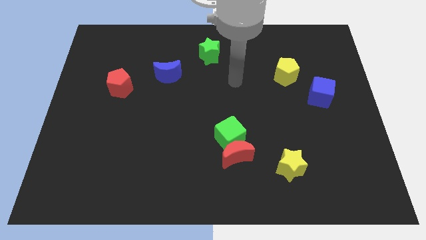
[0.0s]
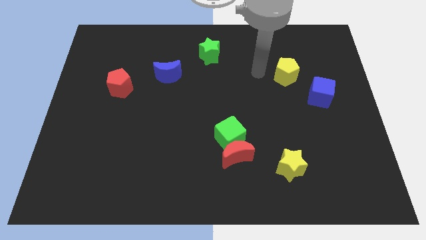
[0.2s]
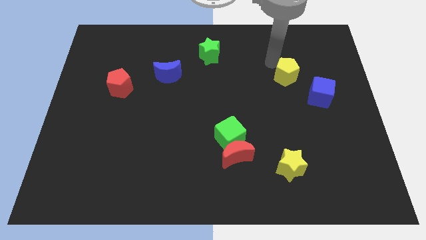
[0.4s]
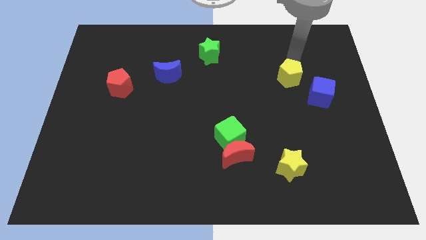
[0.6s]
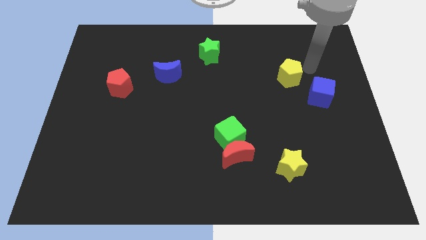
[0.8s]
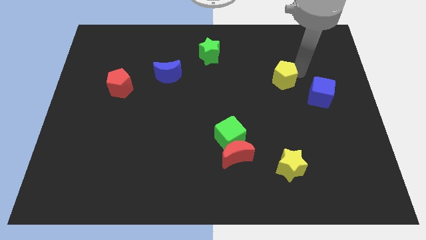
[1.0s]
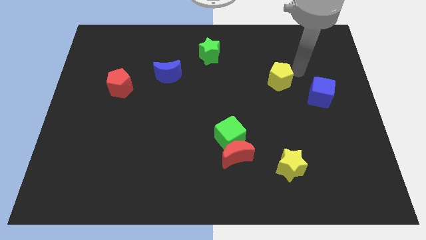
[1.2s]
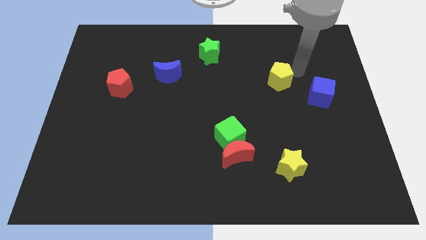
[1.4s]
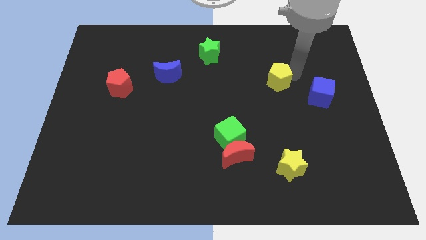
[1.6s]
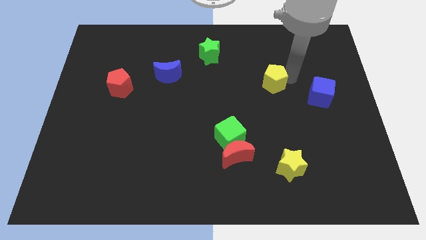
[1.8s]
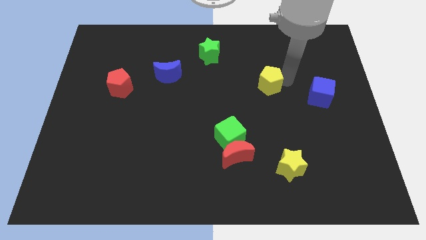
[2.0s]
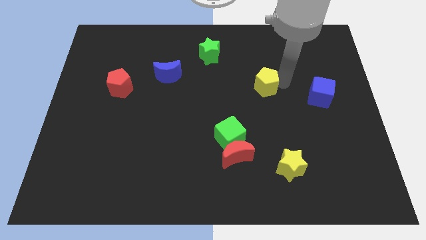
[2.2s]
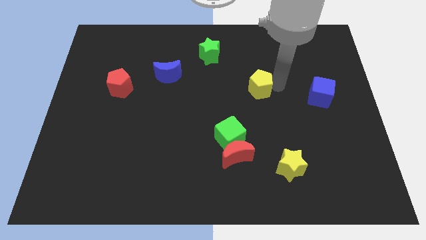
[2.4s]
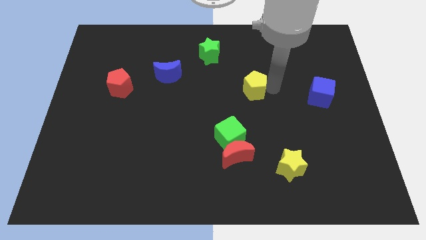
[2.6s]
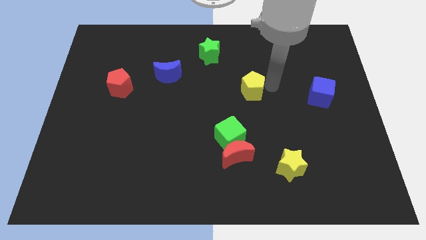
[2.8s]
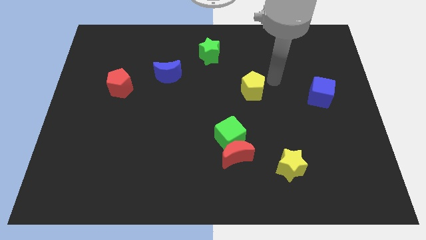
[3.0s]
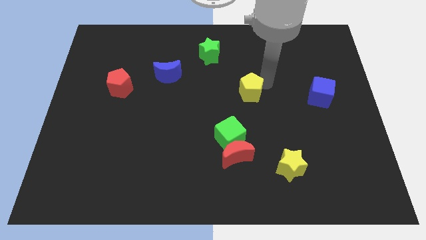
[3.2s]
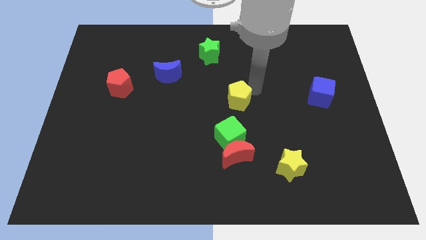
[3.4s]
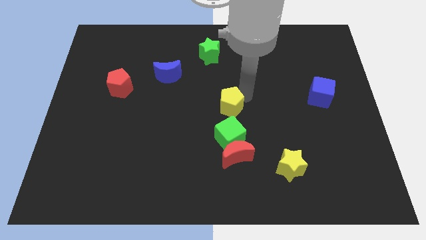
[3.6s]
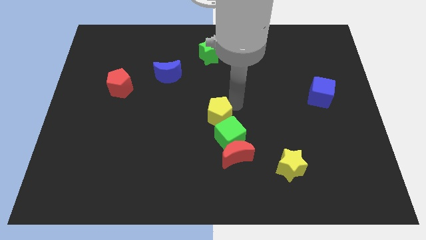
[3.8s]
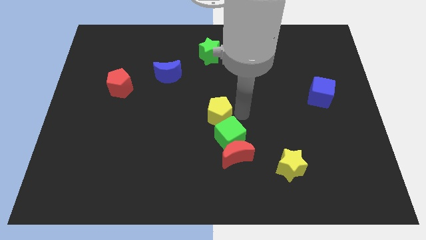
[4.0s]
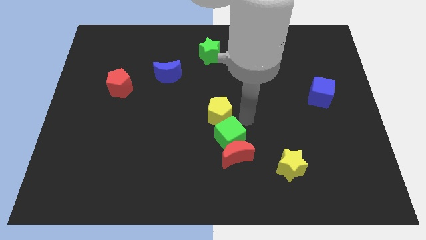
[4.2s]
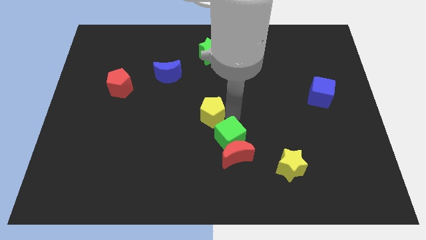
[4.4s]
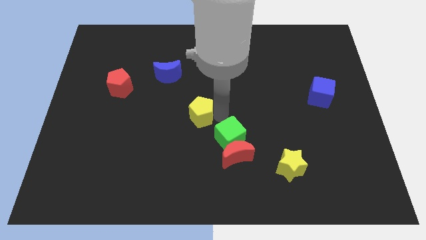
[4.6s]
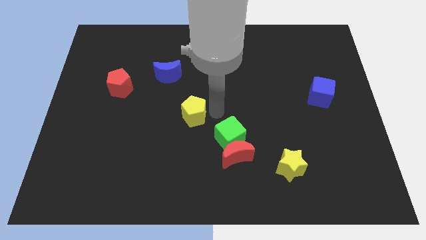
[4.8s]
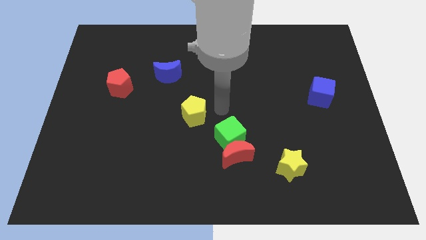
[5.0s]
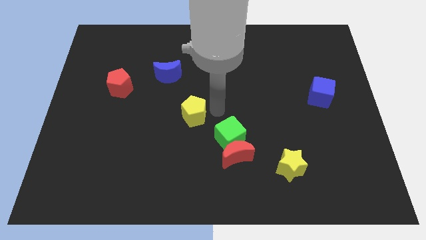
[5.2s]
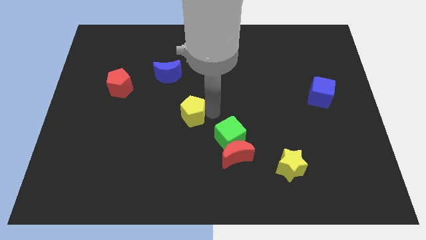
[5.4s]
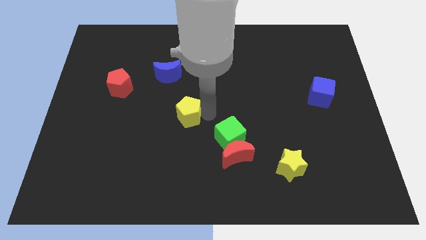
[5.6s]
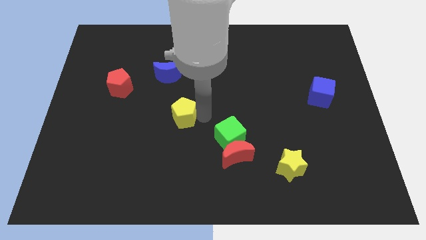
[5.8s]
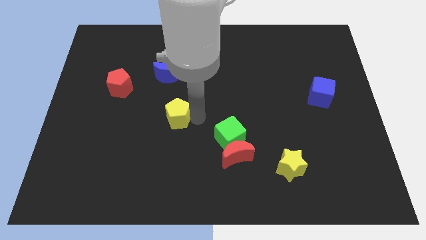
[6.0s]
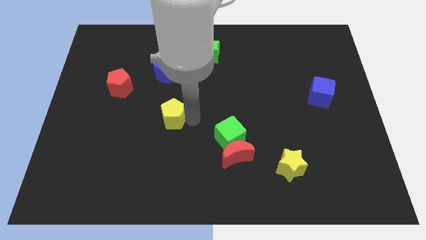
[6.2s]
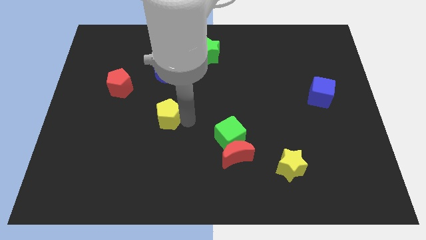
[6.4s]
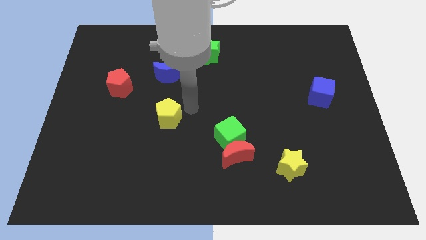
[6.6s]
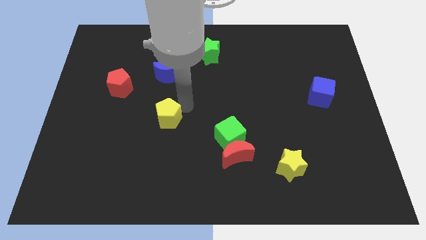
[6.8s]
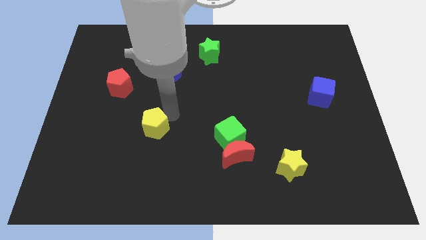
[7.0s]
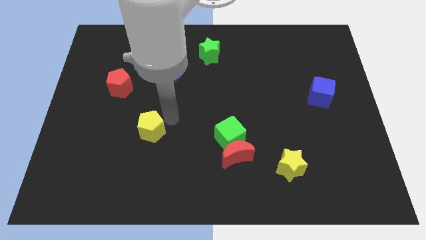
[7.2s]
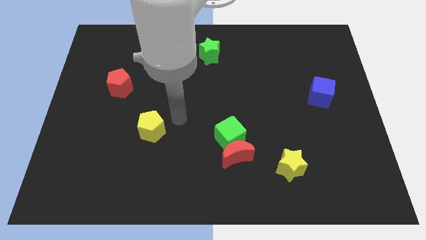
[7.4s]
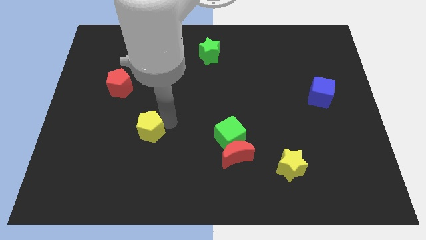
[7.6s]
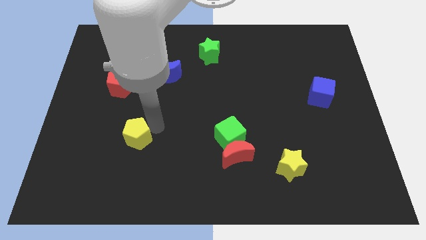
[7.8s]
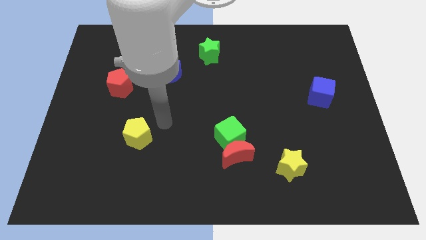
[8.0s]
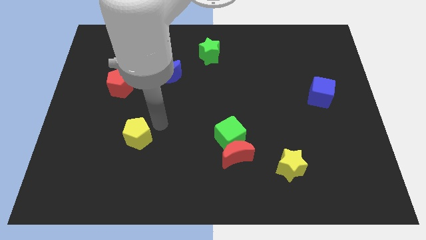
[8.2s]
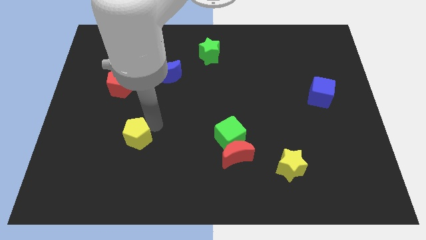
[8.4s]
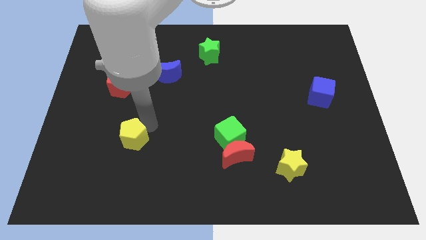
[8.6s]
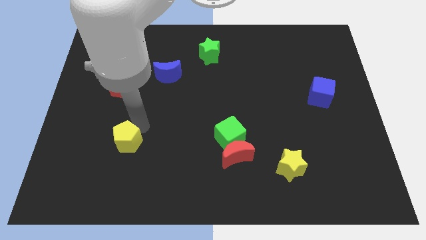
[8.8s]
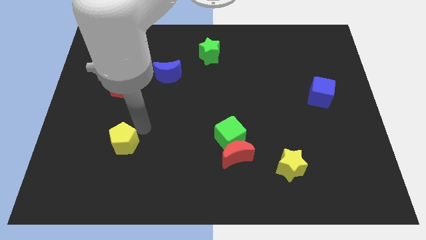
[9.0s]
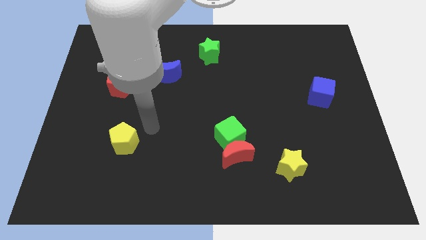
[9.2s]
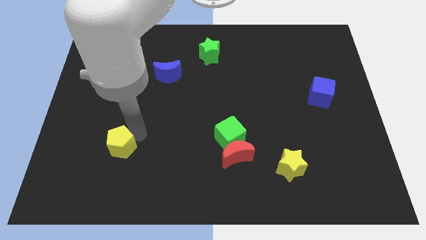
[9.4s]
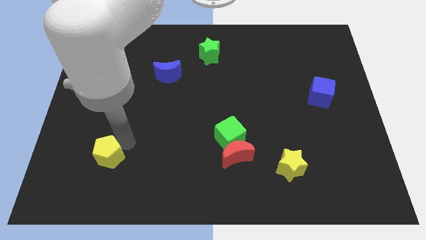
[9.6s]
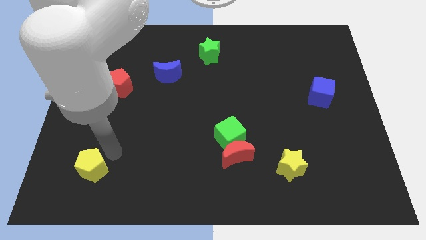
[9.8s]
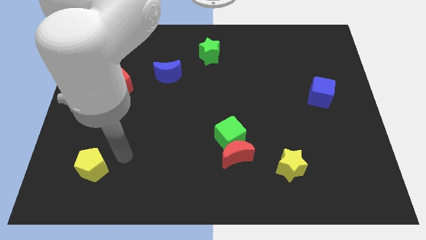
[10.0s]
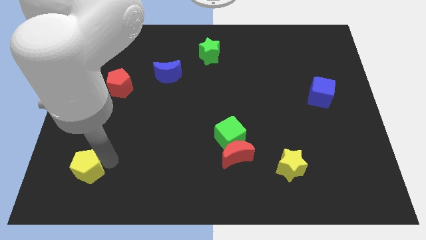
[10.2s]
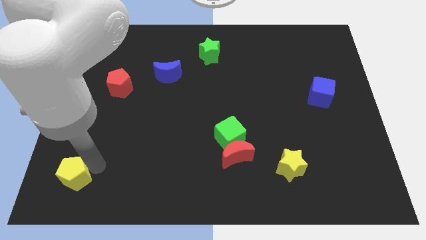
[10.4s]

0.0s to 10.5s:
move the yellow pentagon to the bottom left

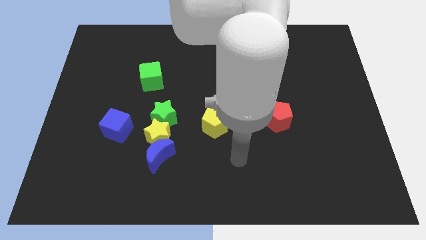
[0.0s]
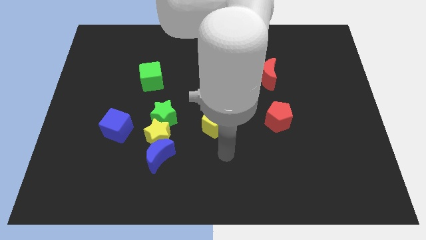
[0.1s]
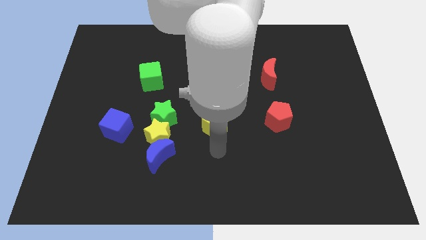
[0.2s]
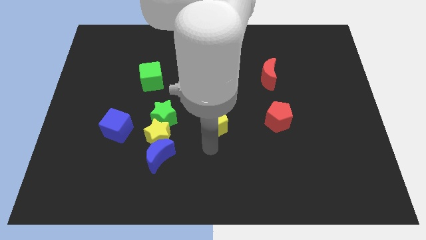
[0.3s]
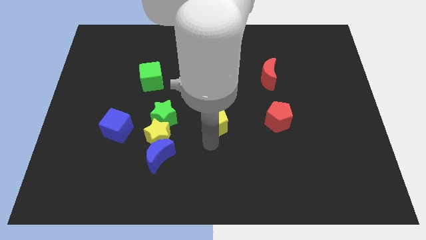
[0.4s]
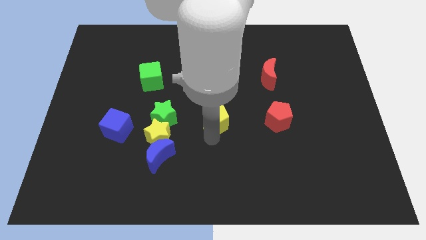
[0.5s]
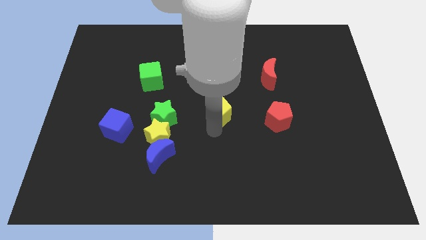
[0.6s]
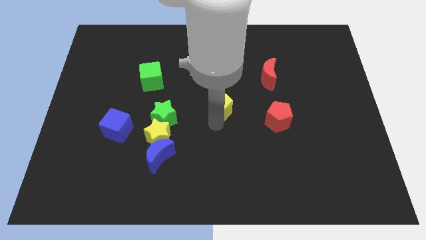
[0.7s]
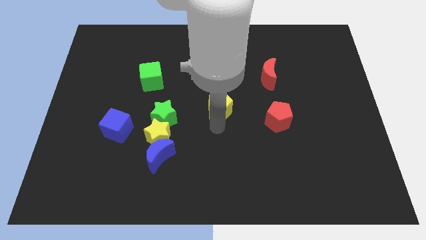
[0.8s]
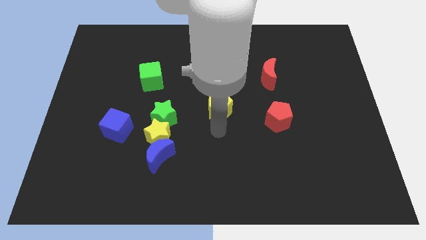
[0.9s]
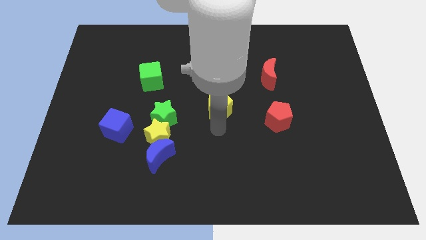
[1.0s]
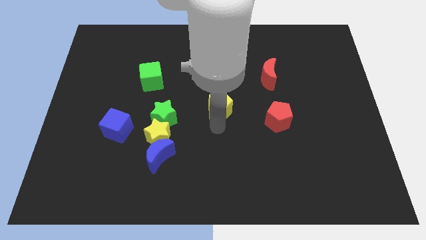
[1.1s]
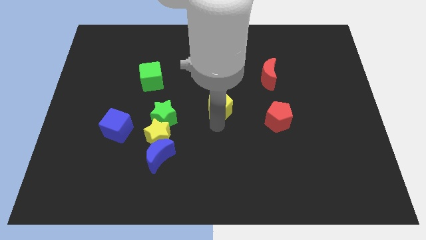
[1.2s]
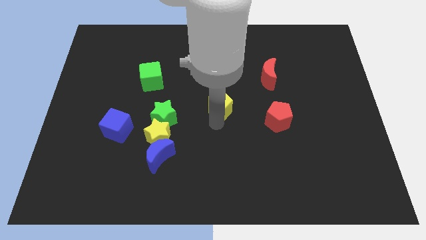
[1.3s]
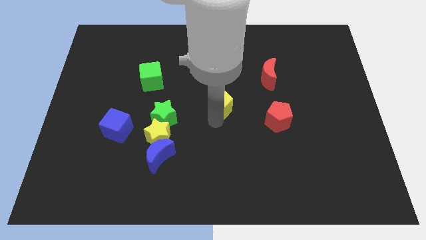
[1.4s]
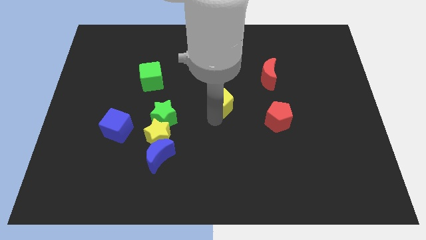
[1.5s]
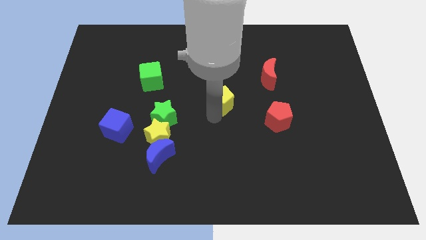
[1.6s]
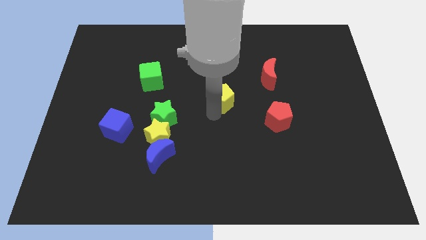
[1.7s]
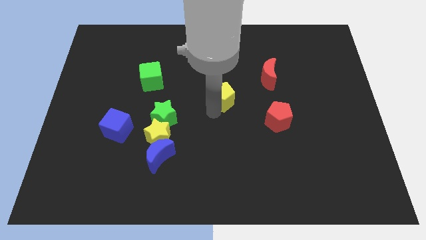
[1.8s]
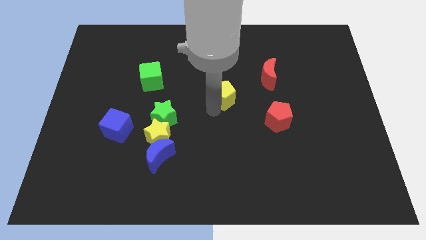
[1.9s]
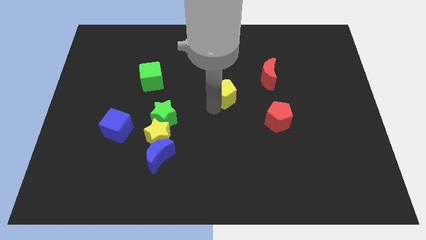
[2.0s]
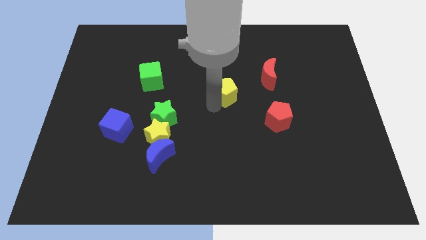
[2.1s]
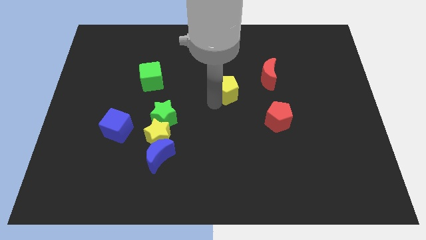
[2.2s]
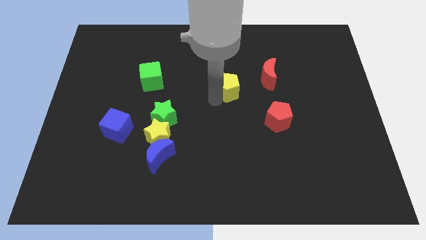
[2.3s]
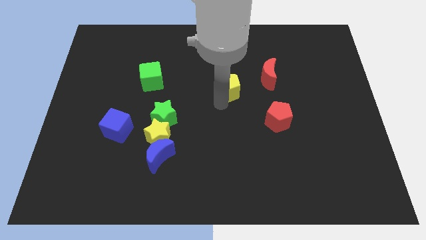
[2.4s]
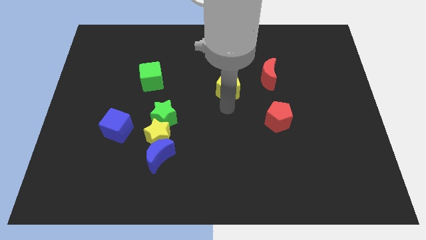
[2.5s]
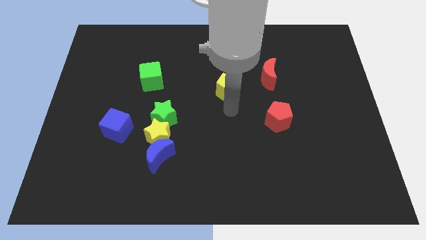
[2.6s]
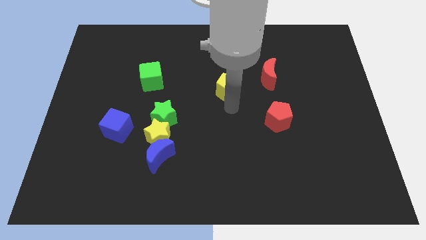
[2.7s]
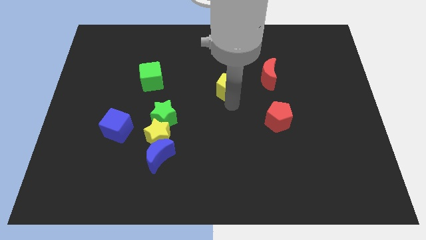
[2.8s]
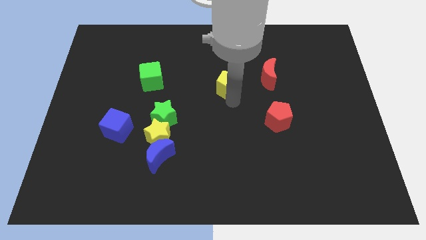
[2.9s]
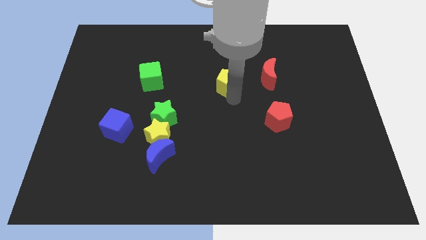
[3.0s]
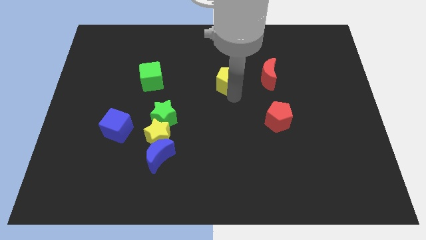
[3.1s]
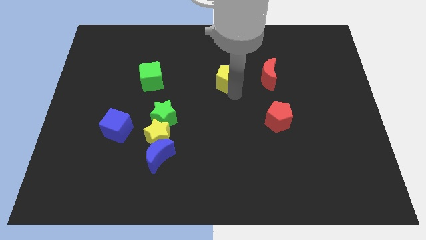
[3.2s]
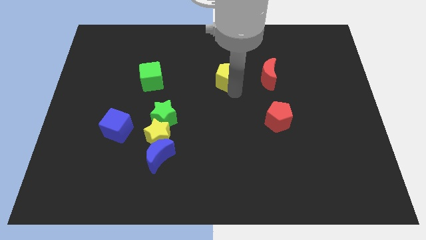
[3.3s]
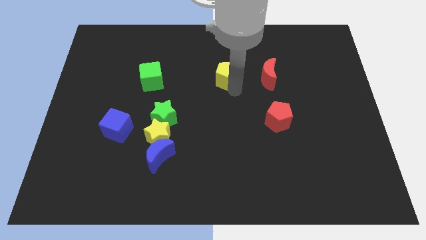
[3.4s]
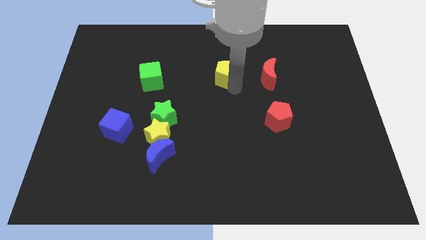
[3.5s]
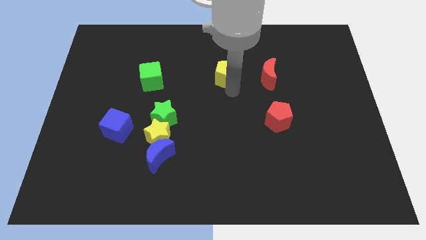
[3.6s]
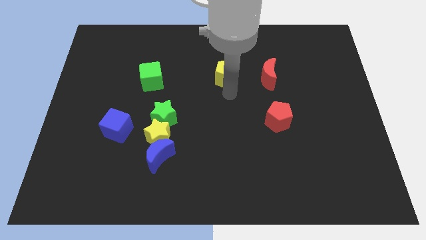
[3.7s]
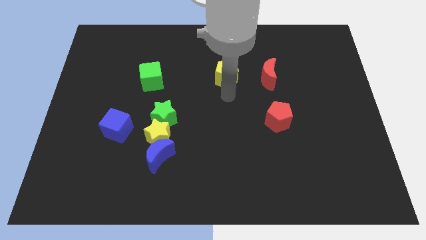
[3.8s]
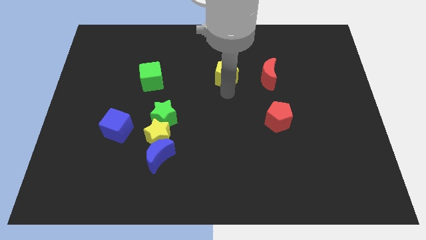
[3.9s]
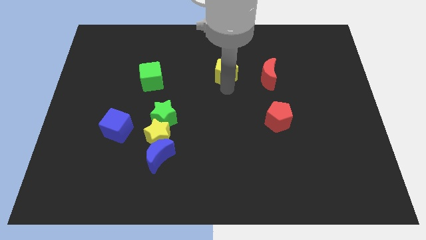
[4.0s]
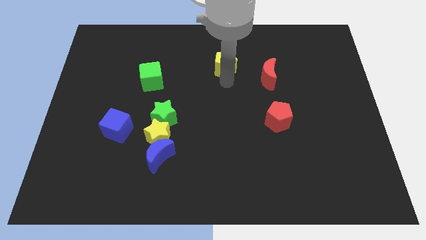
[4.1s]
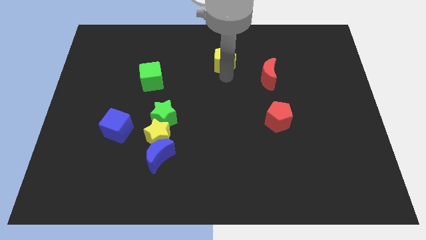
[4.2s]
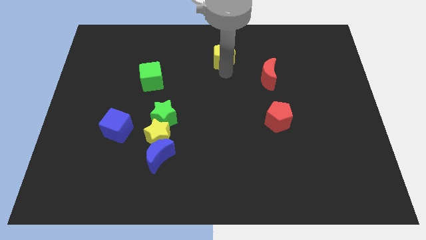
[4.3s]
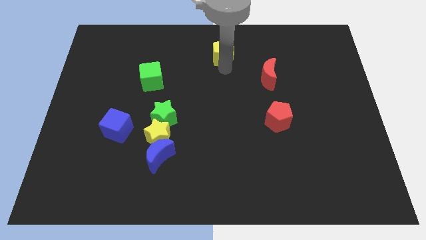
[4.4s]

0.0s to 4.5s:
put the yellow pentagon to the top side
